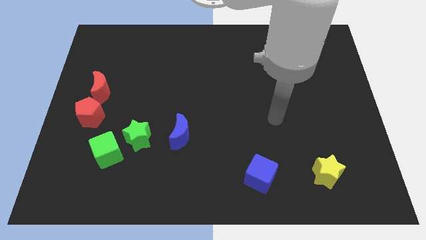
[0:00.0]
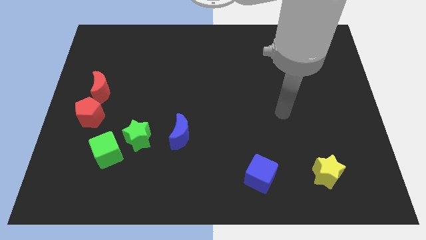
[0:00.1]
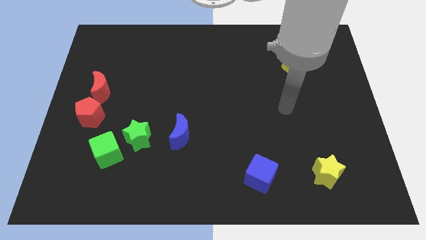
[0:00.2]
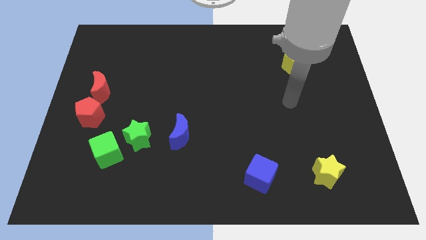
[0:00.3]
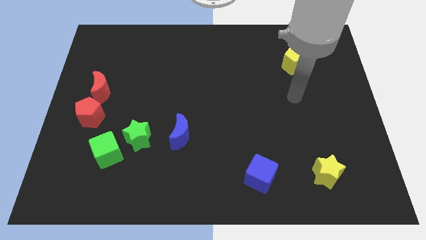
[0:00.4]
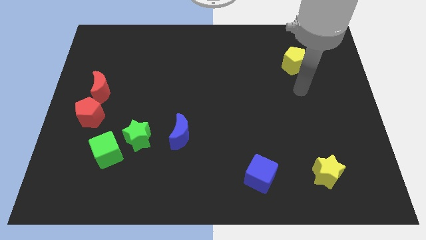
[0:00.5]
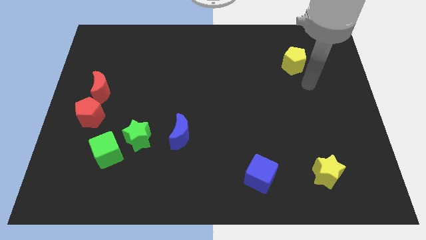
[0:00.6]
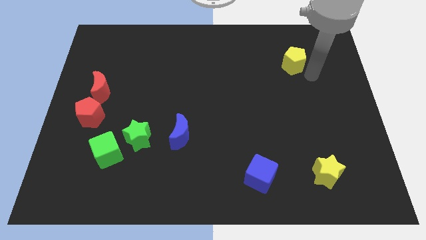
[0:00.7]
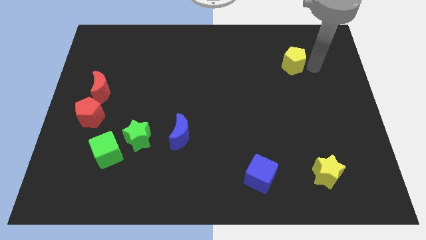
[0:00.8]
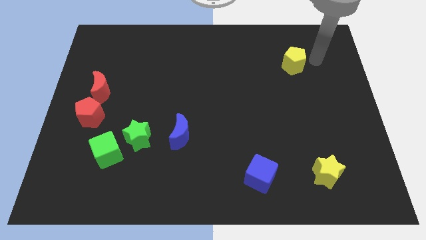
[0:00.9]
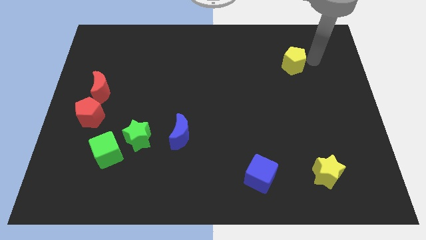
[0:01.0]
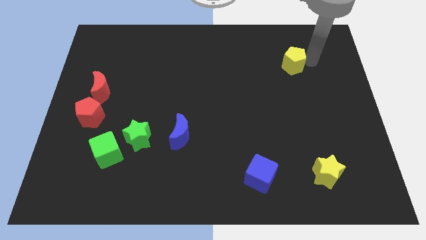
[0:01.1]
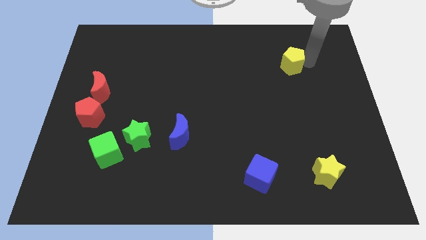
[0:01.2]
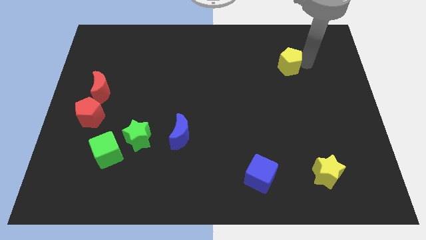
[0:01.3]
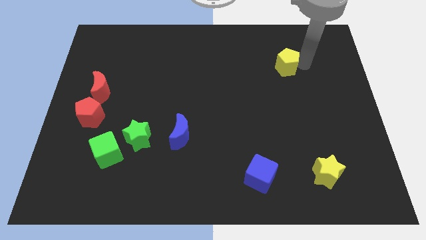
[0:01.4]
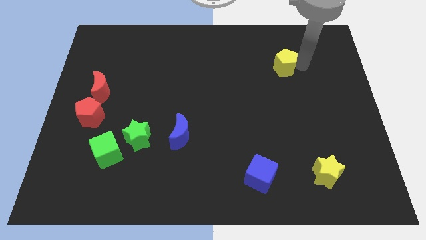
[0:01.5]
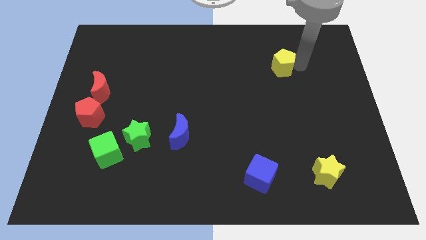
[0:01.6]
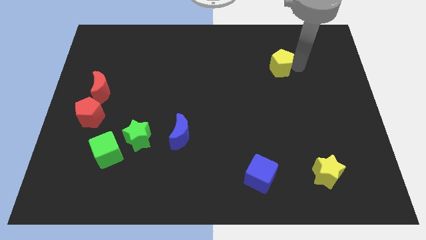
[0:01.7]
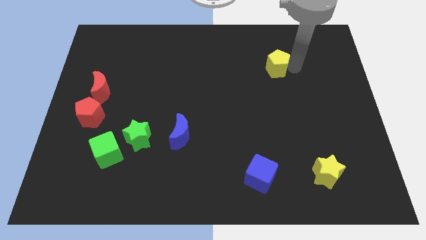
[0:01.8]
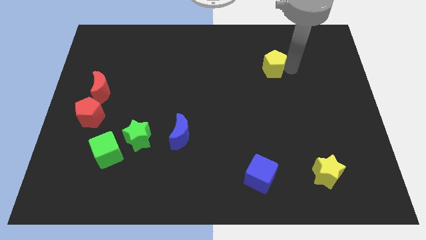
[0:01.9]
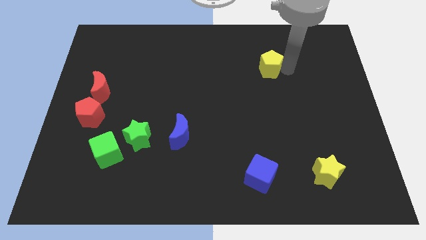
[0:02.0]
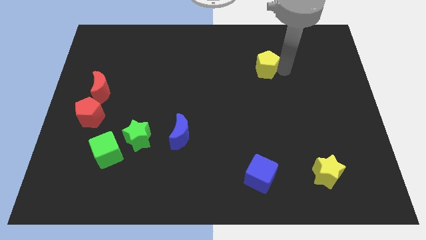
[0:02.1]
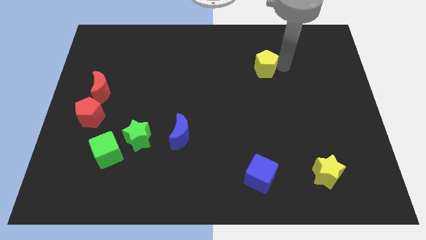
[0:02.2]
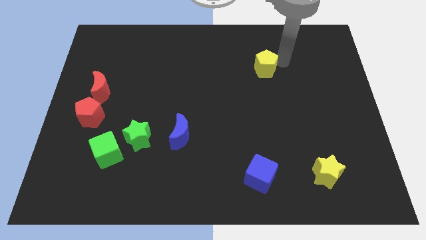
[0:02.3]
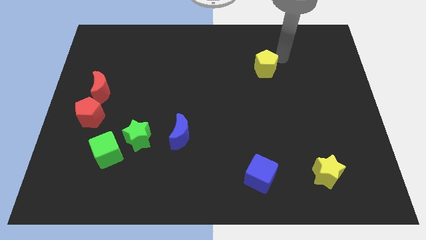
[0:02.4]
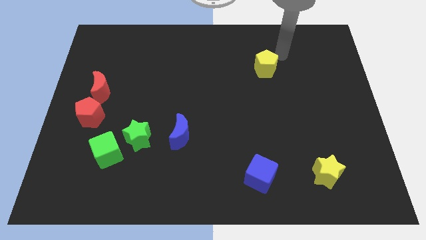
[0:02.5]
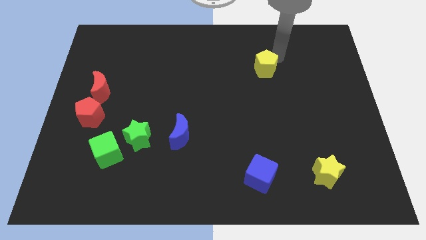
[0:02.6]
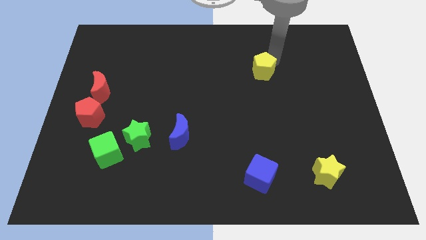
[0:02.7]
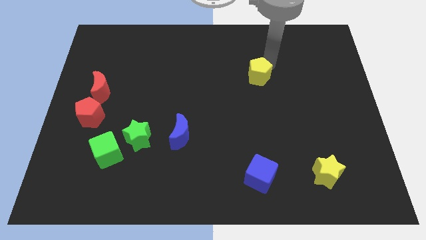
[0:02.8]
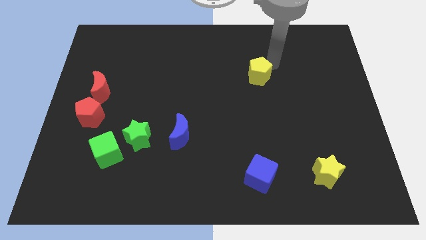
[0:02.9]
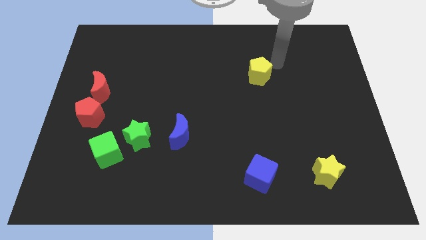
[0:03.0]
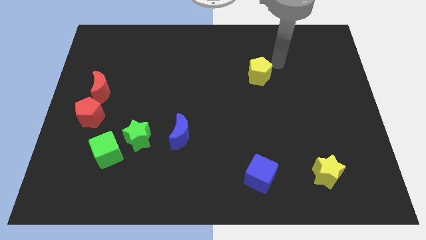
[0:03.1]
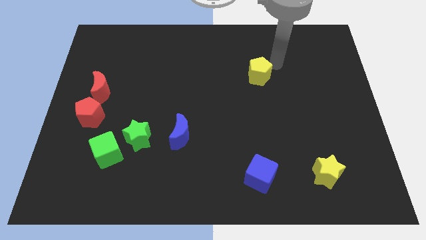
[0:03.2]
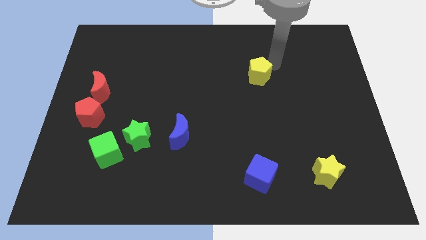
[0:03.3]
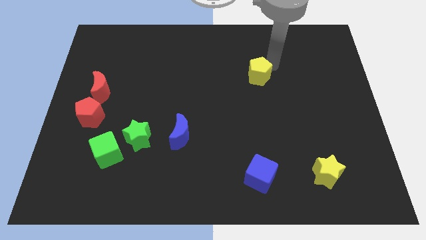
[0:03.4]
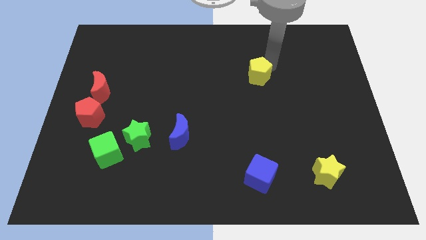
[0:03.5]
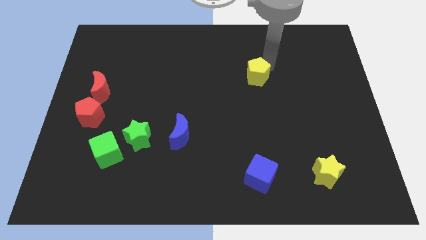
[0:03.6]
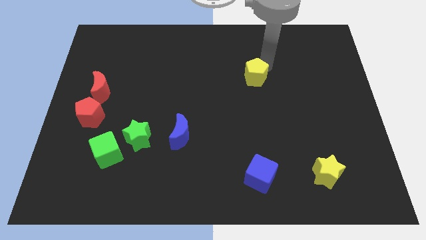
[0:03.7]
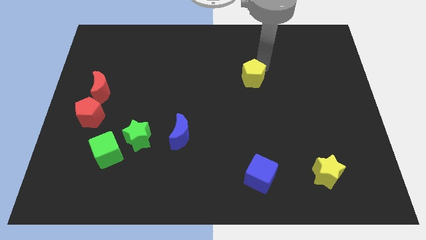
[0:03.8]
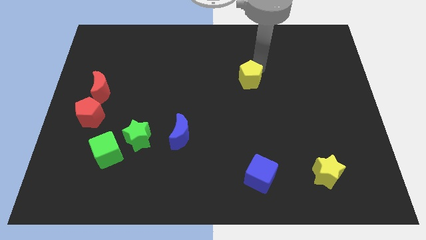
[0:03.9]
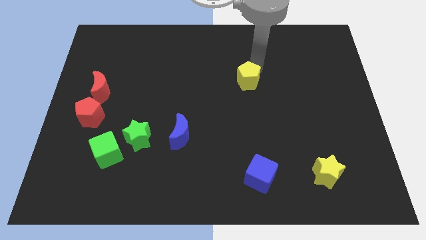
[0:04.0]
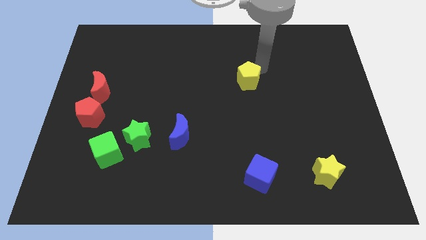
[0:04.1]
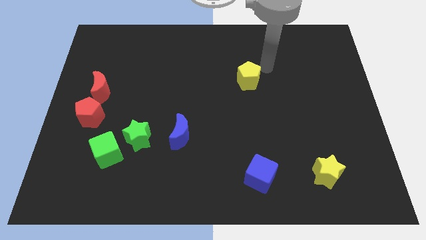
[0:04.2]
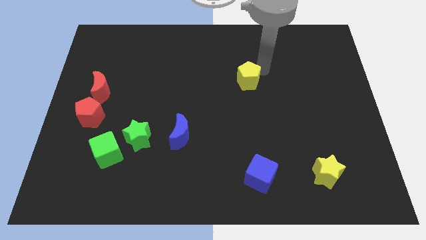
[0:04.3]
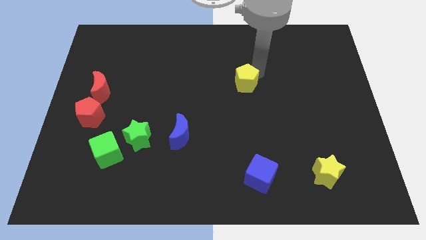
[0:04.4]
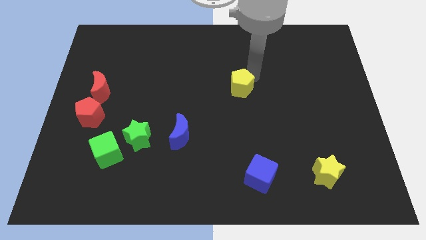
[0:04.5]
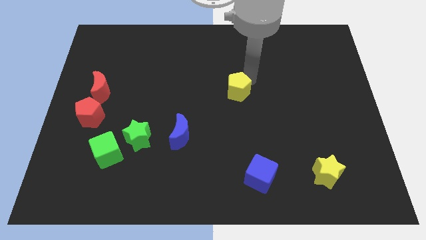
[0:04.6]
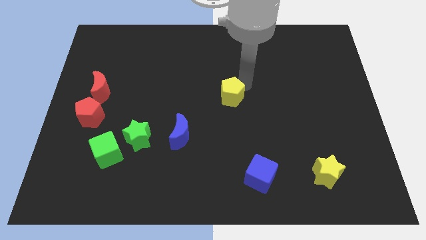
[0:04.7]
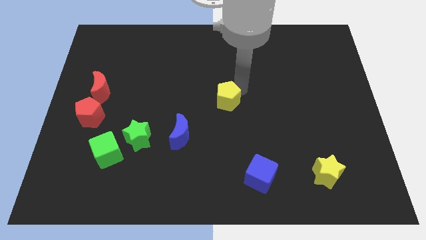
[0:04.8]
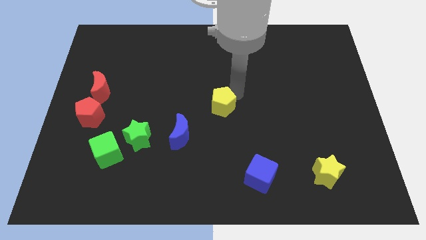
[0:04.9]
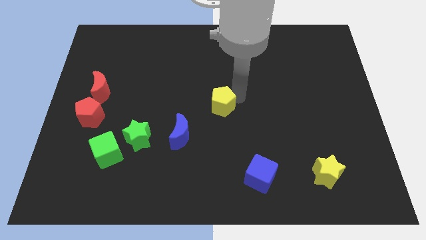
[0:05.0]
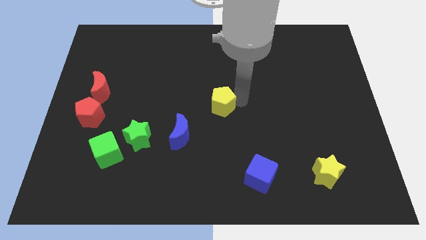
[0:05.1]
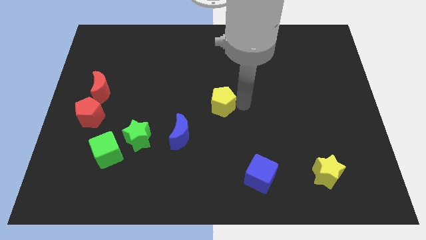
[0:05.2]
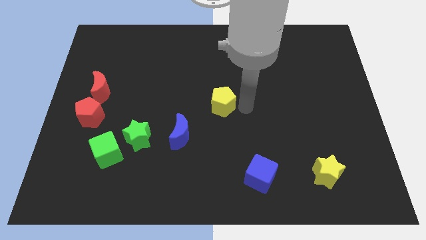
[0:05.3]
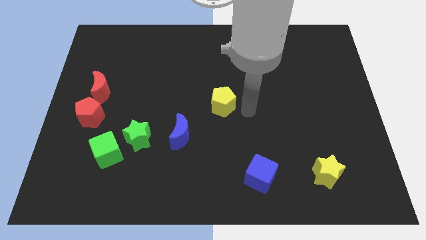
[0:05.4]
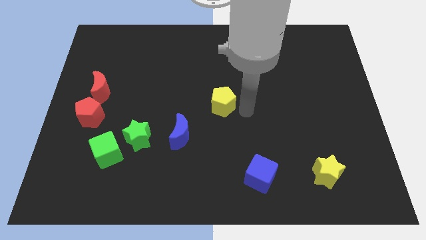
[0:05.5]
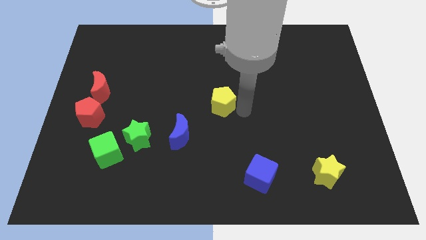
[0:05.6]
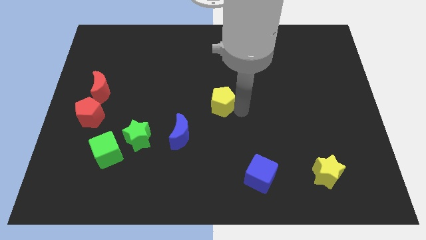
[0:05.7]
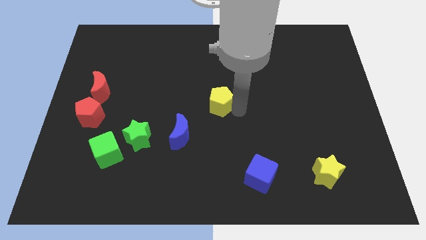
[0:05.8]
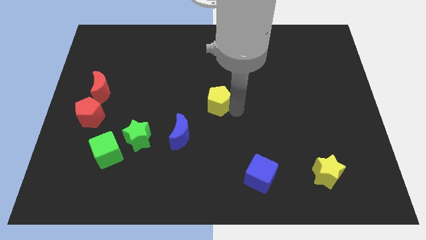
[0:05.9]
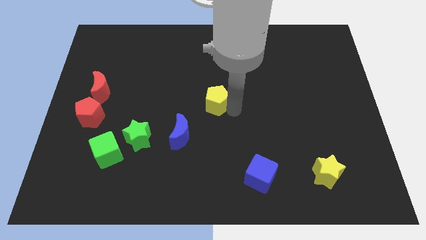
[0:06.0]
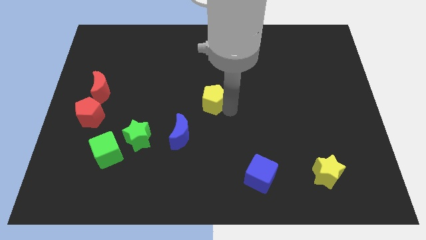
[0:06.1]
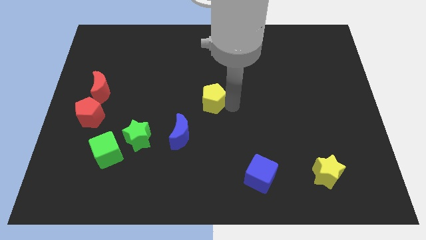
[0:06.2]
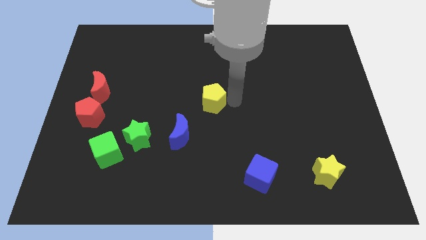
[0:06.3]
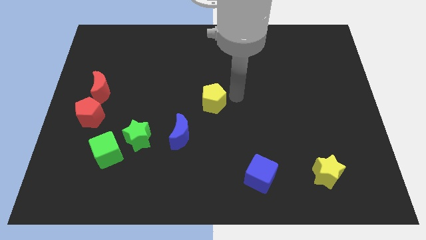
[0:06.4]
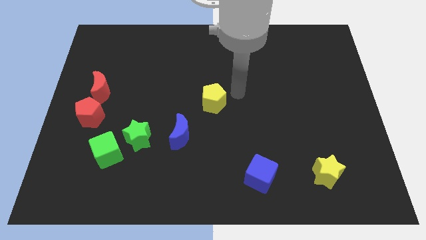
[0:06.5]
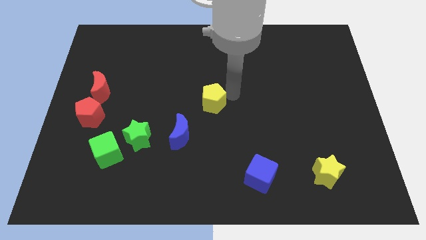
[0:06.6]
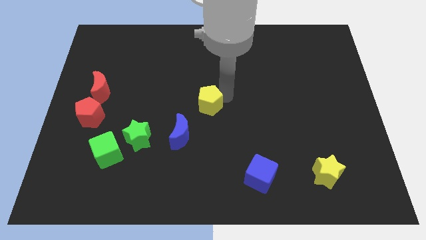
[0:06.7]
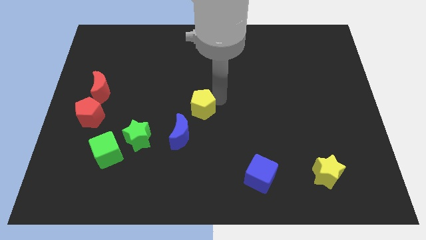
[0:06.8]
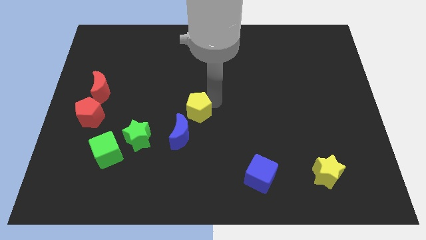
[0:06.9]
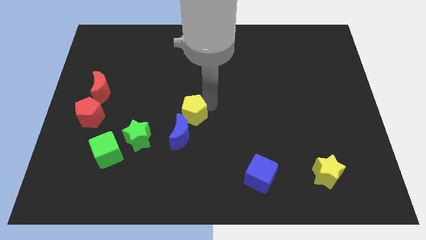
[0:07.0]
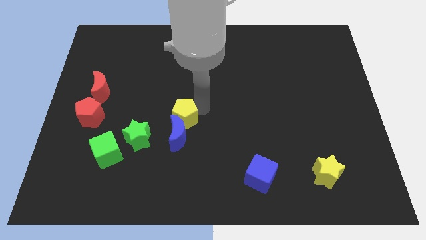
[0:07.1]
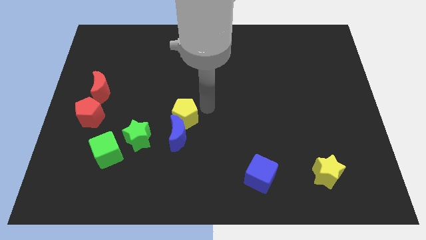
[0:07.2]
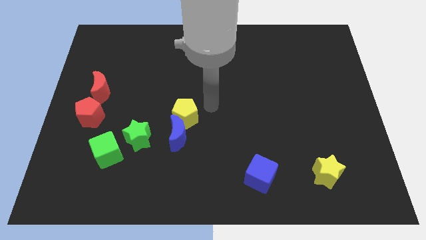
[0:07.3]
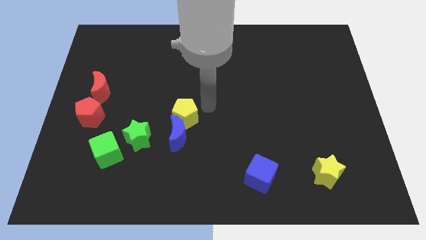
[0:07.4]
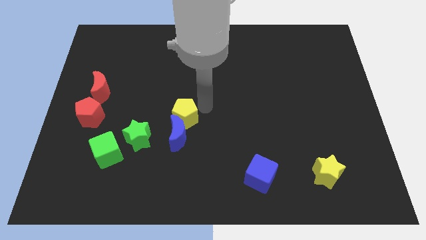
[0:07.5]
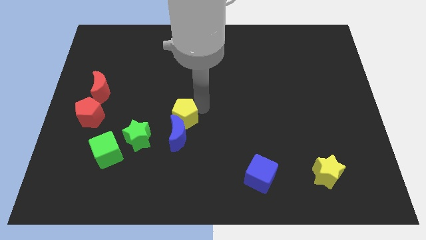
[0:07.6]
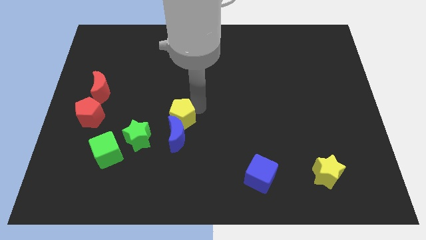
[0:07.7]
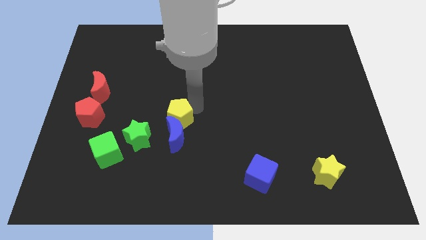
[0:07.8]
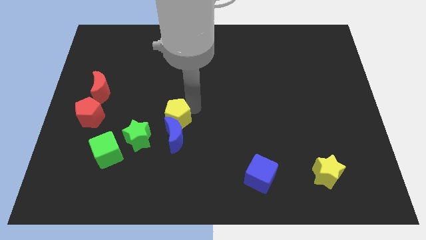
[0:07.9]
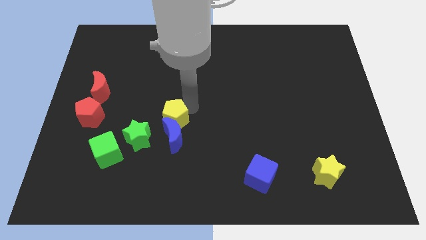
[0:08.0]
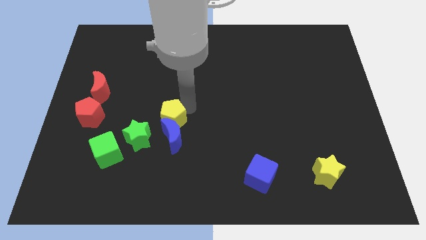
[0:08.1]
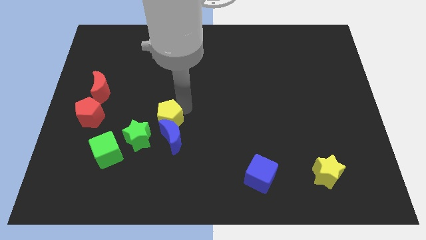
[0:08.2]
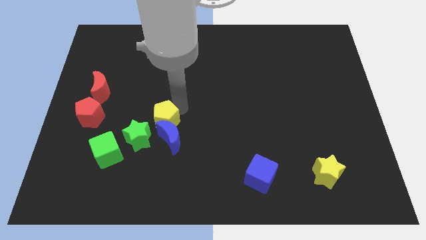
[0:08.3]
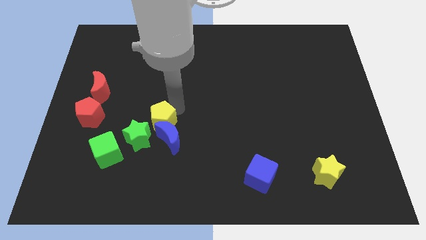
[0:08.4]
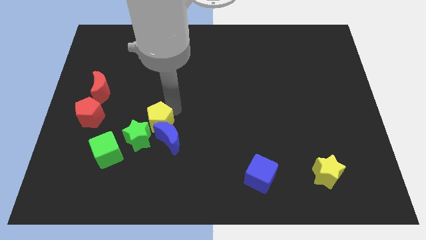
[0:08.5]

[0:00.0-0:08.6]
move the yellow pentagon towards the green star
